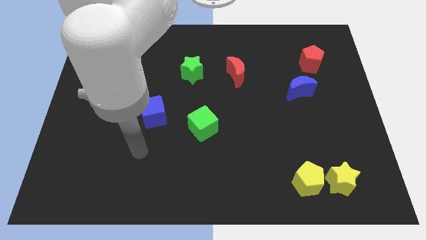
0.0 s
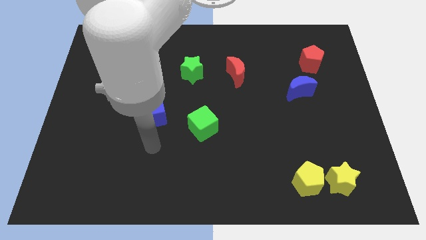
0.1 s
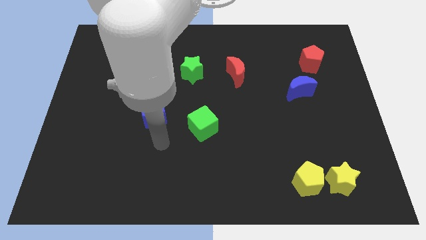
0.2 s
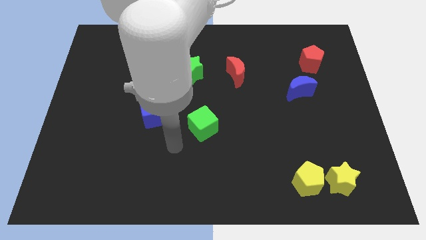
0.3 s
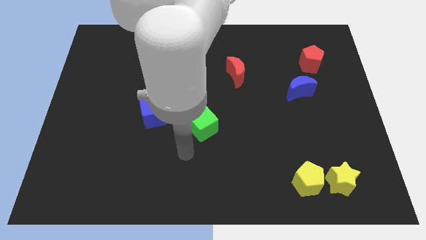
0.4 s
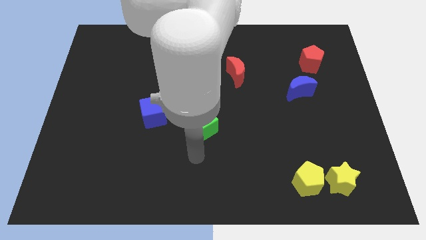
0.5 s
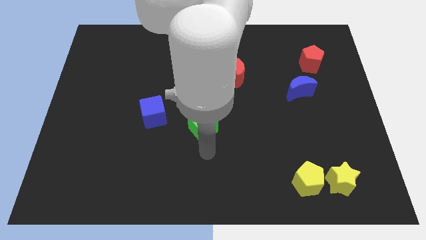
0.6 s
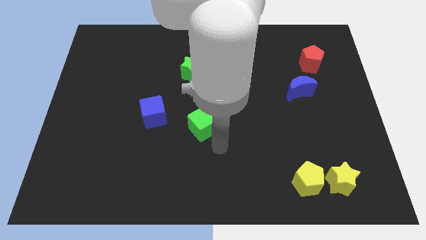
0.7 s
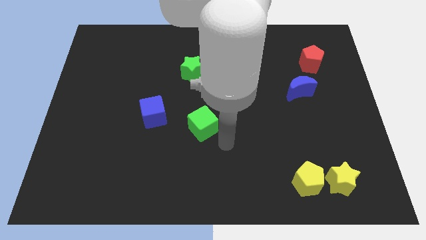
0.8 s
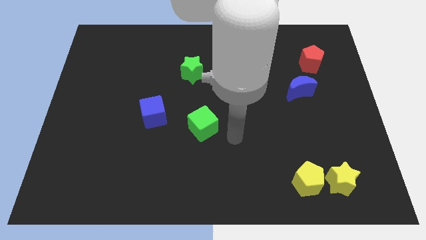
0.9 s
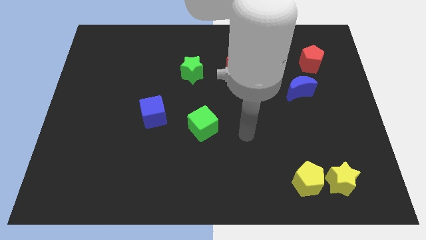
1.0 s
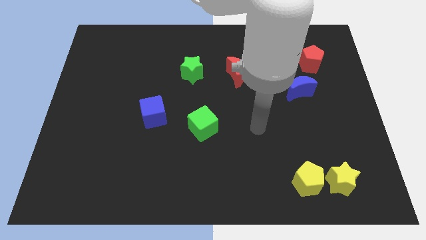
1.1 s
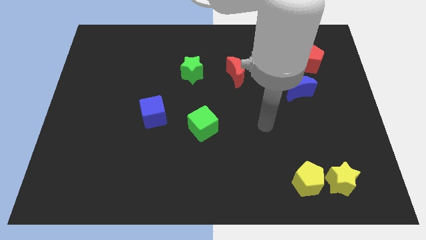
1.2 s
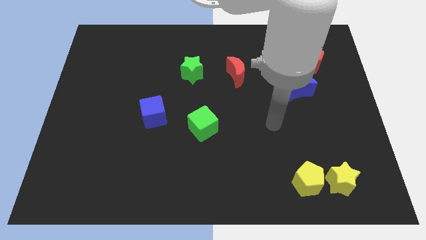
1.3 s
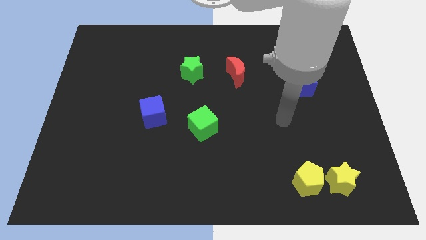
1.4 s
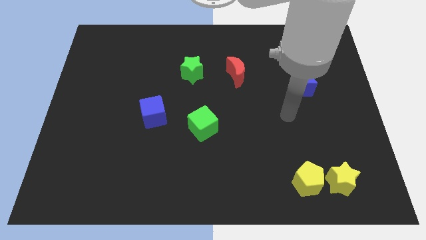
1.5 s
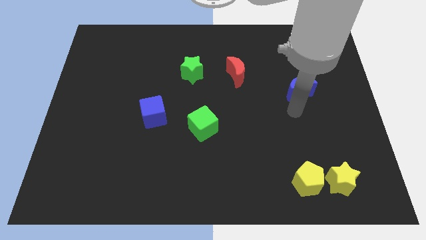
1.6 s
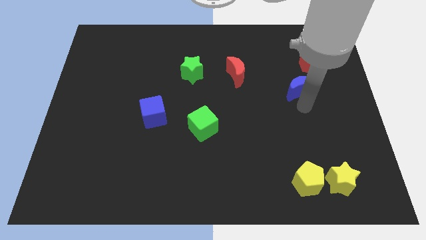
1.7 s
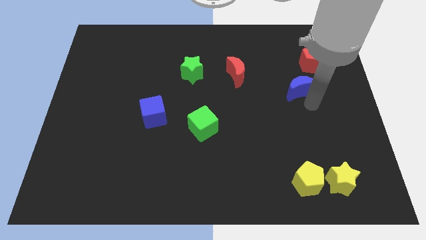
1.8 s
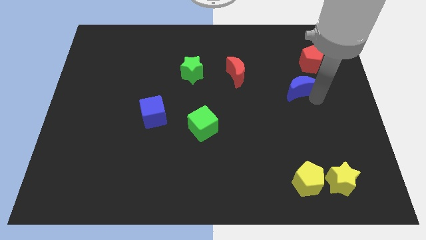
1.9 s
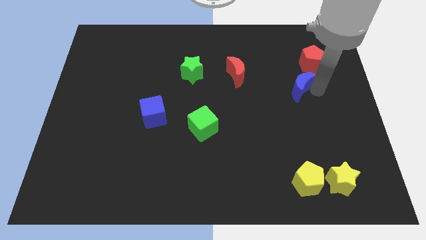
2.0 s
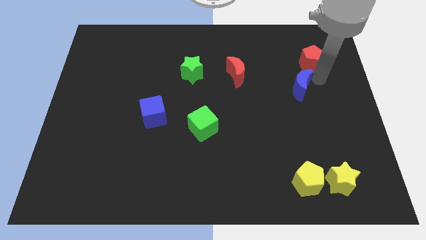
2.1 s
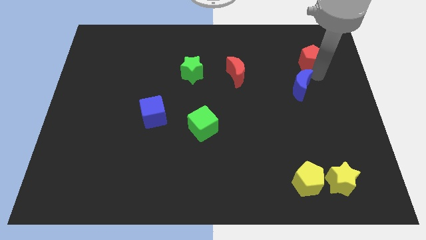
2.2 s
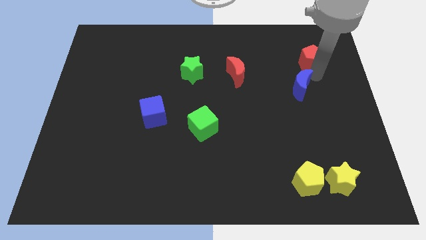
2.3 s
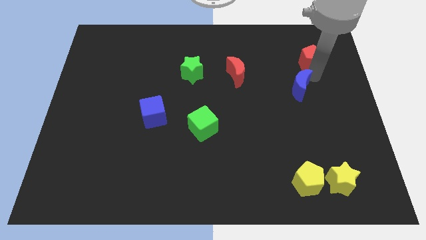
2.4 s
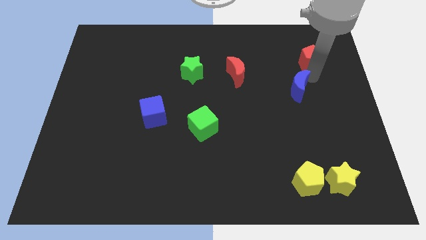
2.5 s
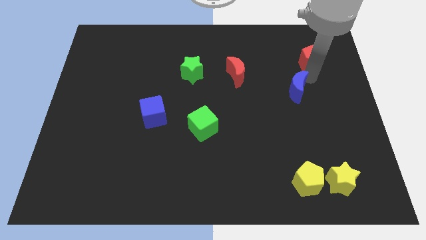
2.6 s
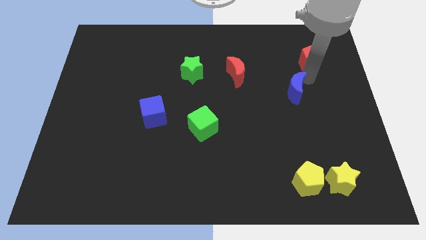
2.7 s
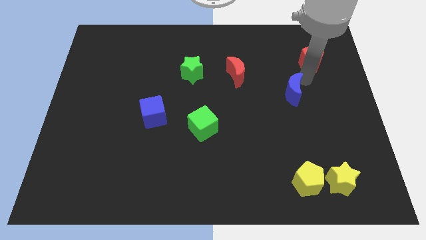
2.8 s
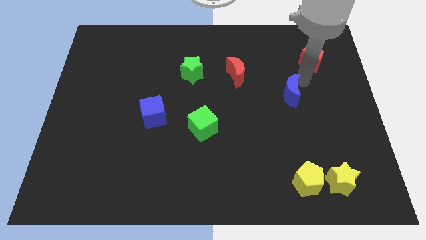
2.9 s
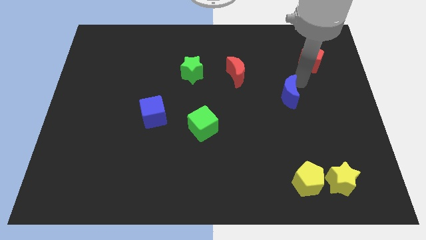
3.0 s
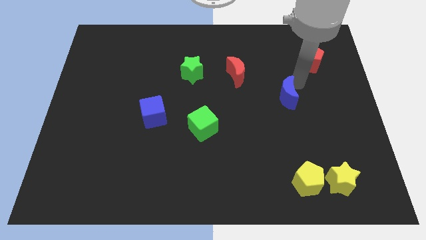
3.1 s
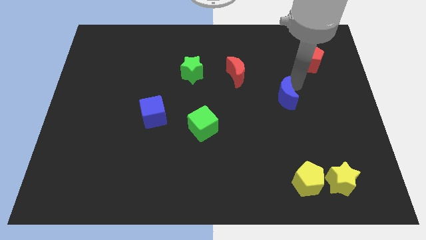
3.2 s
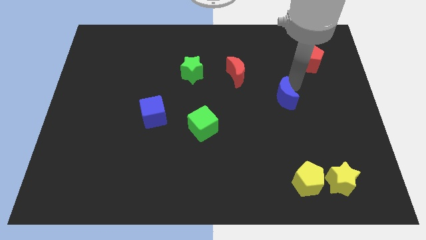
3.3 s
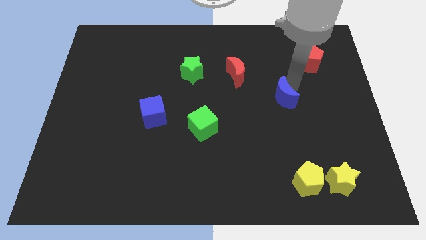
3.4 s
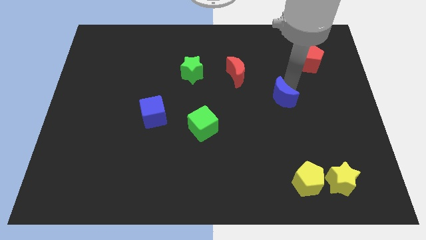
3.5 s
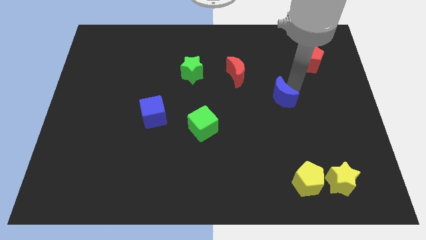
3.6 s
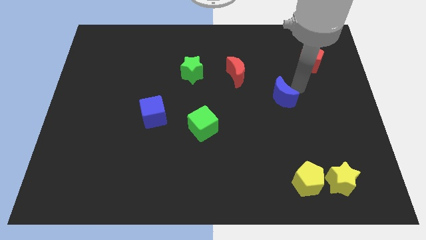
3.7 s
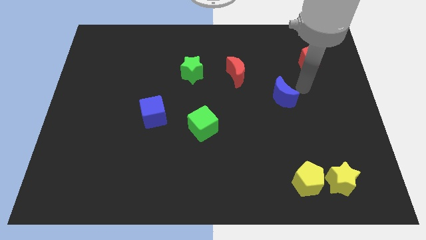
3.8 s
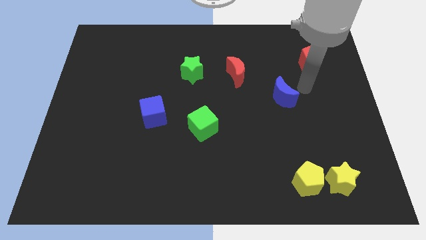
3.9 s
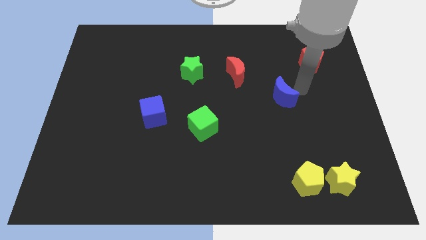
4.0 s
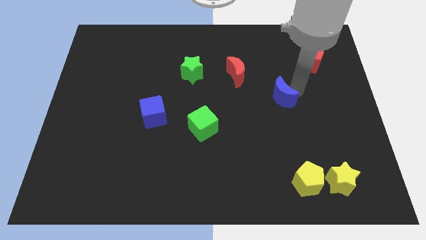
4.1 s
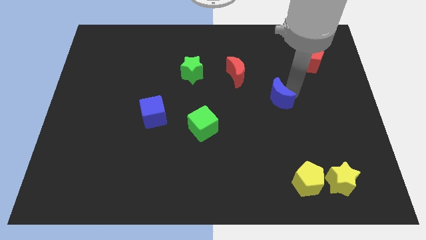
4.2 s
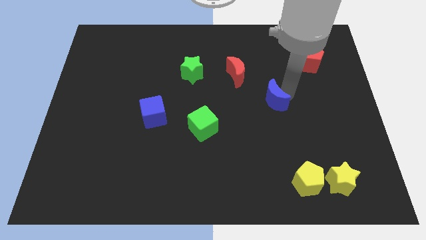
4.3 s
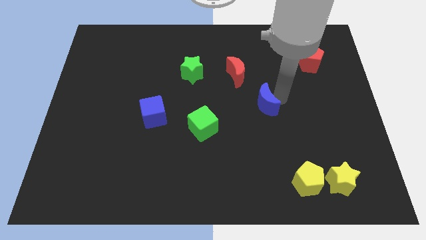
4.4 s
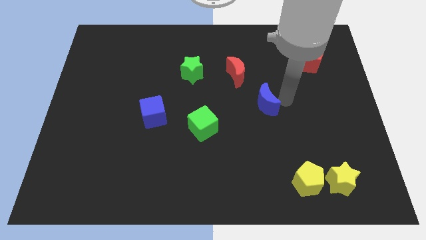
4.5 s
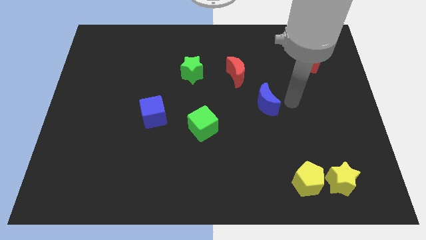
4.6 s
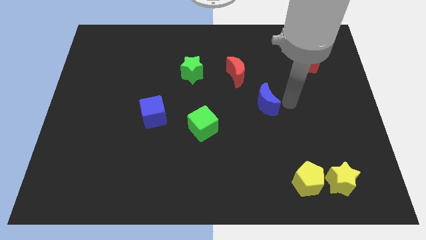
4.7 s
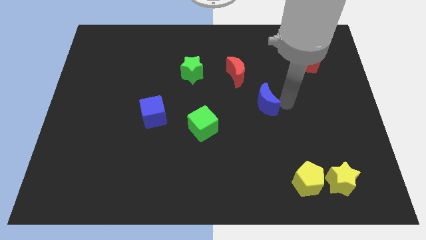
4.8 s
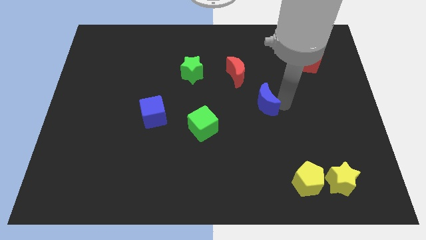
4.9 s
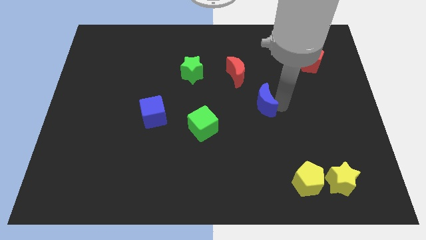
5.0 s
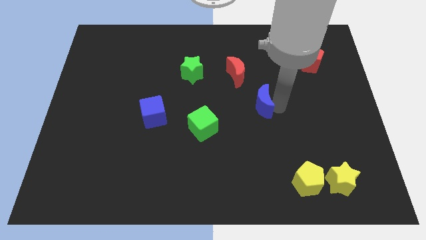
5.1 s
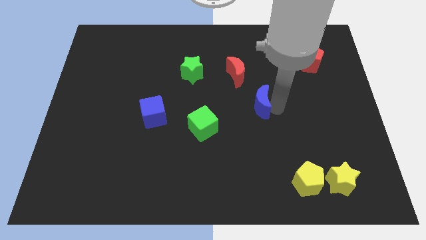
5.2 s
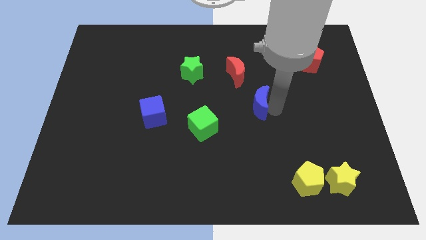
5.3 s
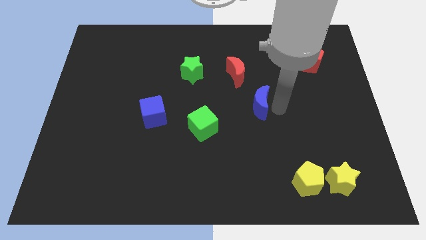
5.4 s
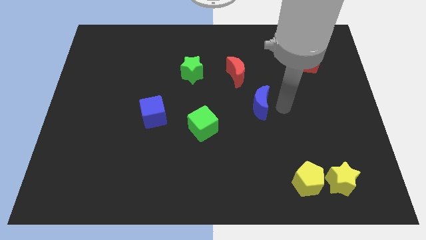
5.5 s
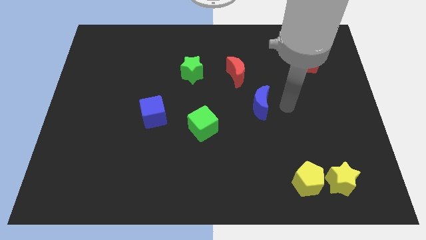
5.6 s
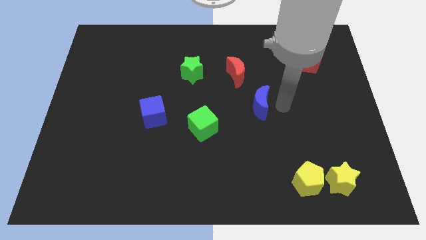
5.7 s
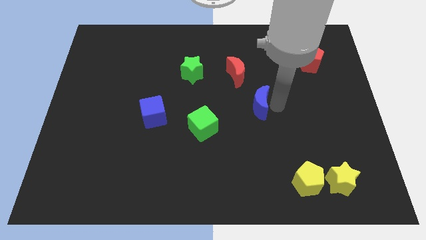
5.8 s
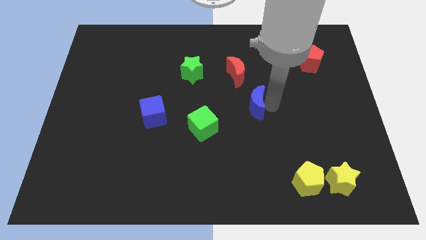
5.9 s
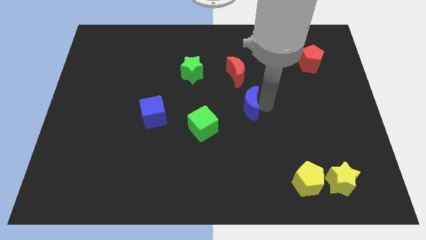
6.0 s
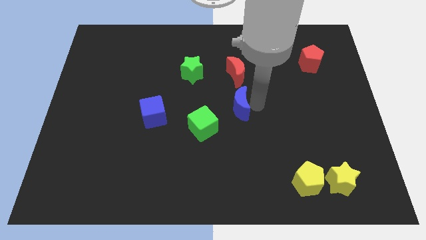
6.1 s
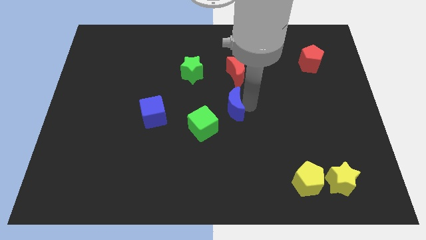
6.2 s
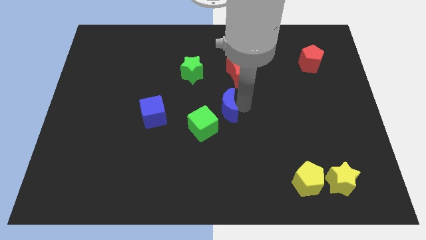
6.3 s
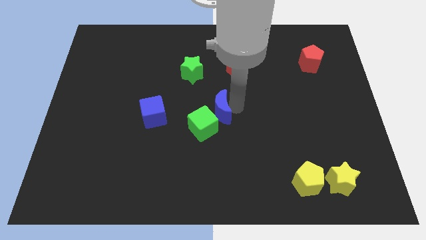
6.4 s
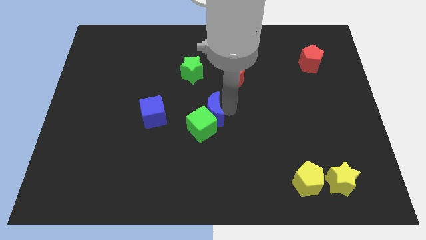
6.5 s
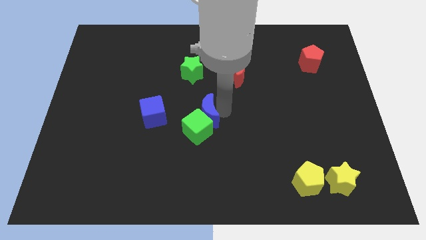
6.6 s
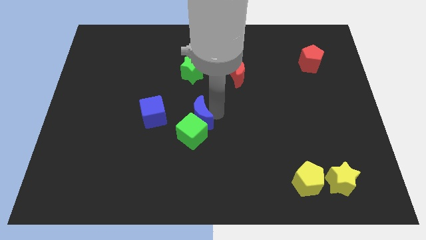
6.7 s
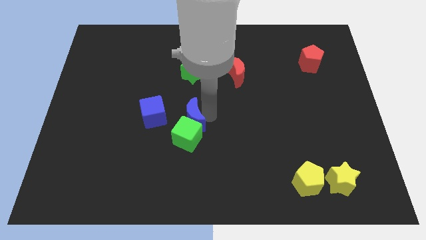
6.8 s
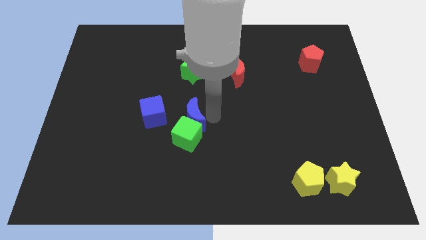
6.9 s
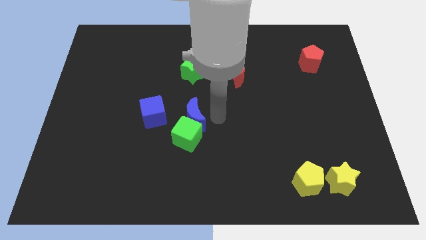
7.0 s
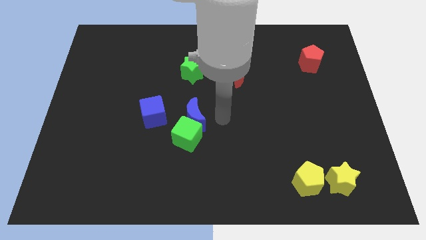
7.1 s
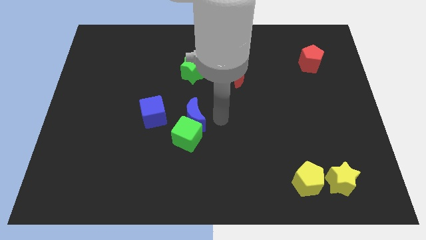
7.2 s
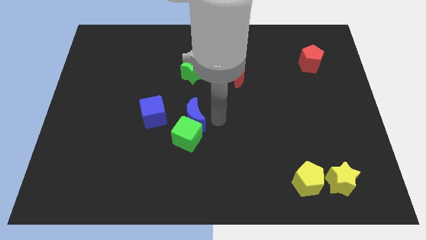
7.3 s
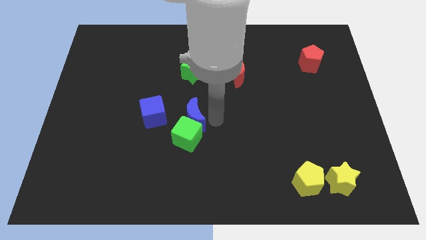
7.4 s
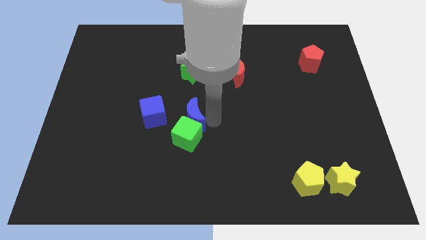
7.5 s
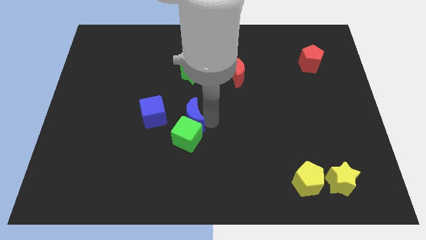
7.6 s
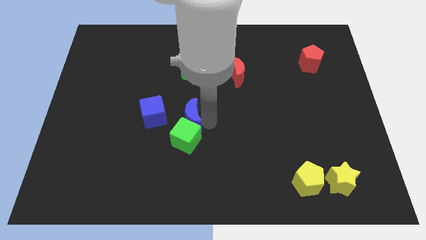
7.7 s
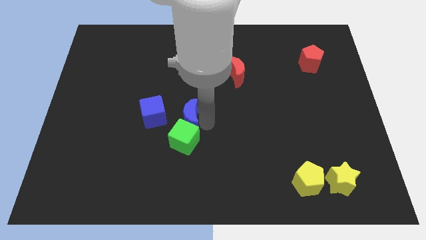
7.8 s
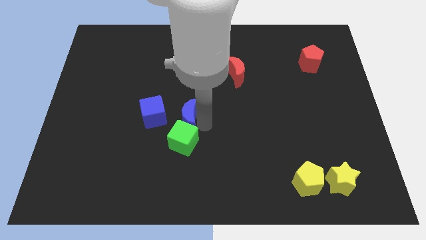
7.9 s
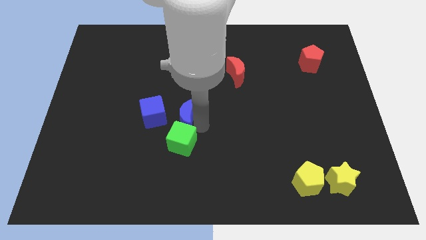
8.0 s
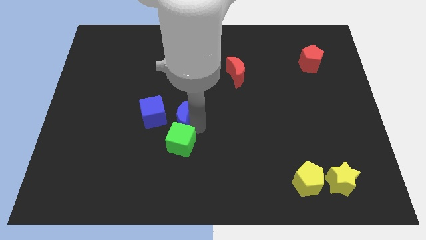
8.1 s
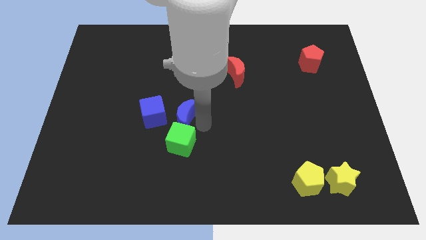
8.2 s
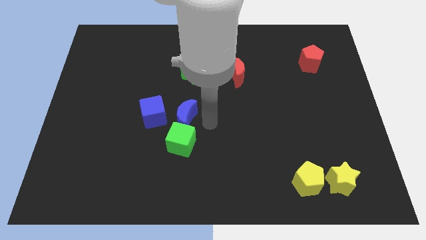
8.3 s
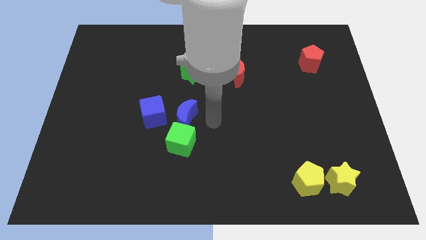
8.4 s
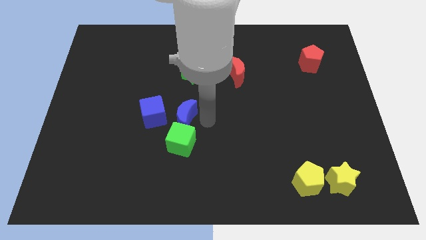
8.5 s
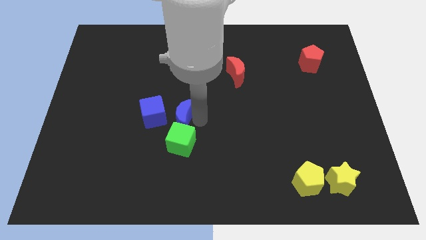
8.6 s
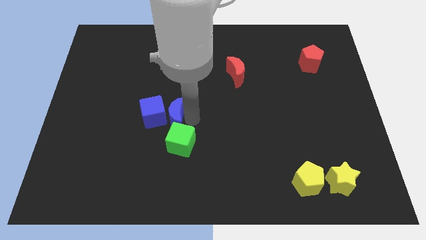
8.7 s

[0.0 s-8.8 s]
slide the blue moon towards the blue cube
